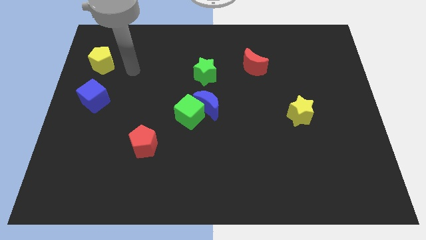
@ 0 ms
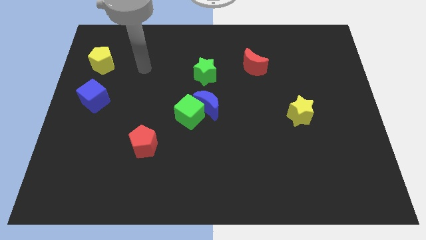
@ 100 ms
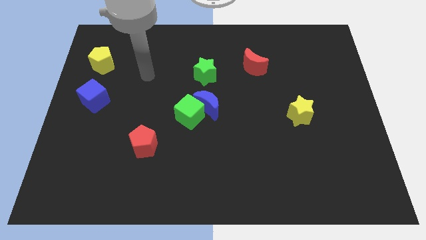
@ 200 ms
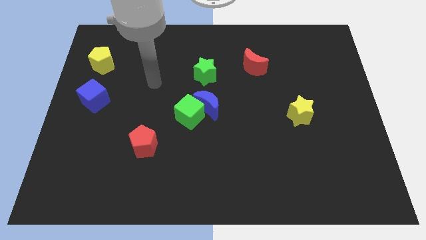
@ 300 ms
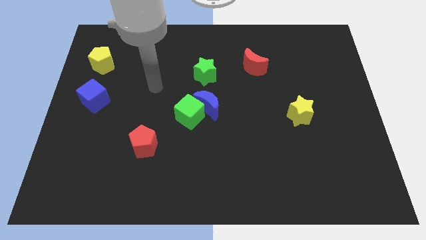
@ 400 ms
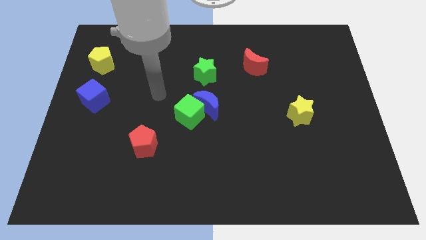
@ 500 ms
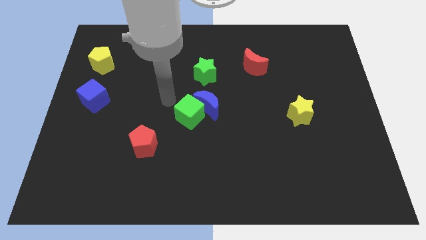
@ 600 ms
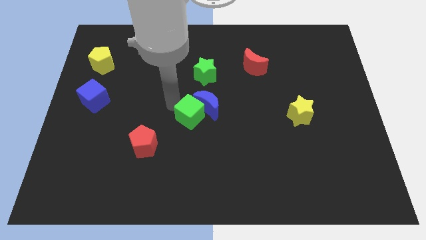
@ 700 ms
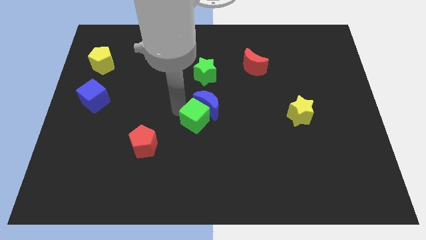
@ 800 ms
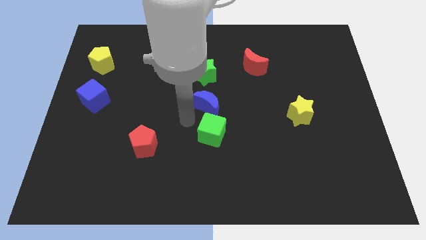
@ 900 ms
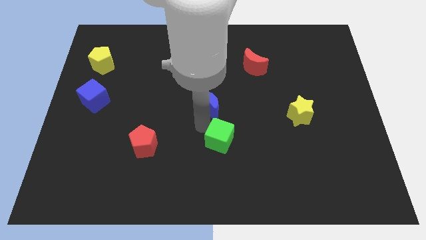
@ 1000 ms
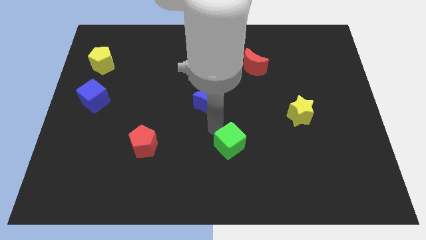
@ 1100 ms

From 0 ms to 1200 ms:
pull the blue moon apart from the green cube

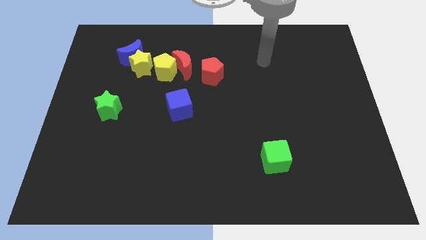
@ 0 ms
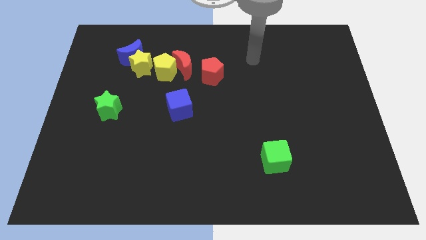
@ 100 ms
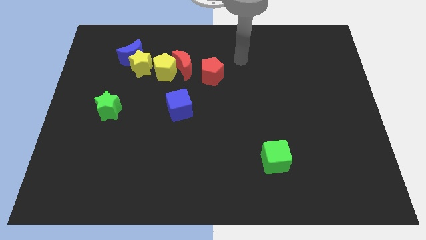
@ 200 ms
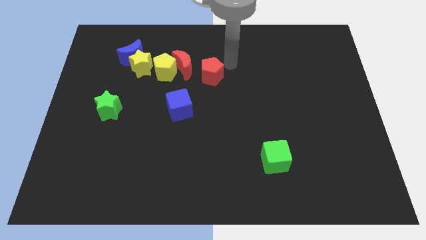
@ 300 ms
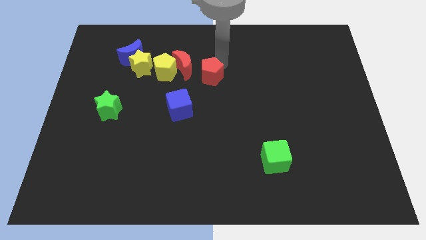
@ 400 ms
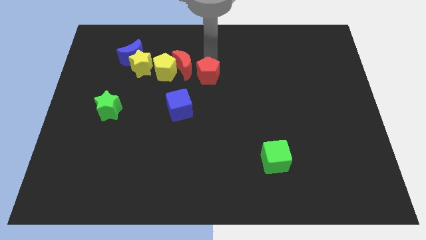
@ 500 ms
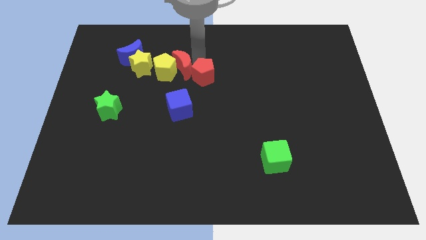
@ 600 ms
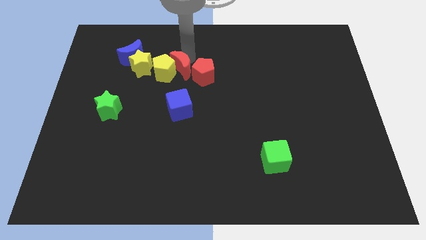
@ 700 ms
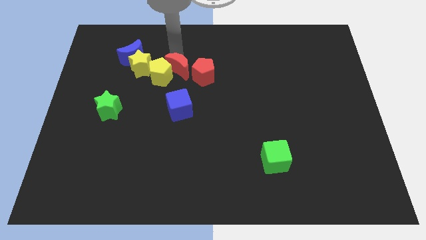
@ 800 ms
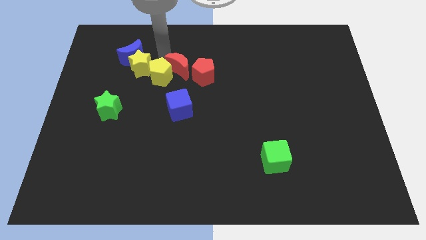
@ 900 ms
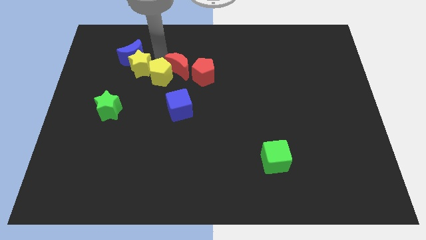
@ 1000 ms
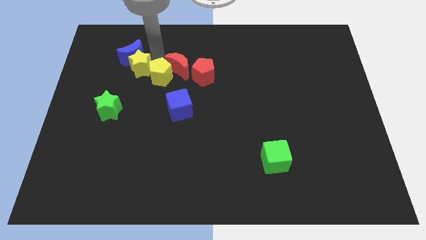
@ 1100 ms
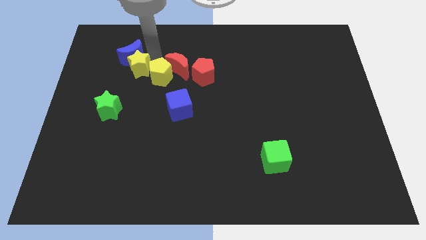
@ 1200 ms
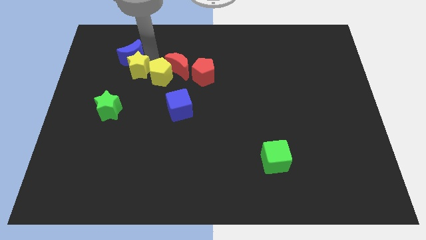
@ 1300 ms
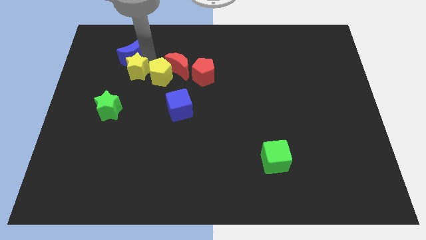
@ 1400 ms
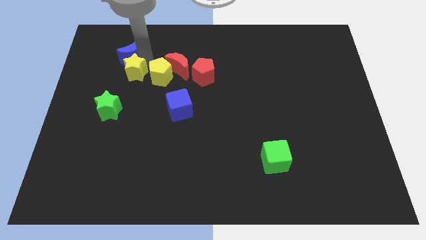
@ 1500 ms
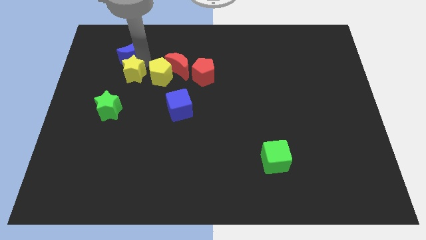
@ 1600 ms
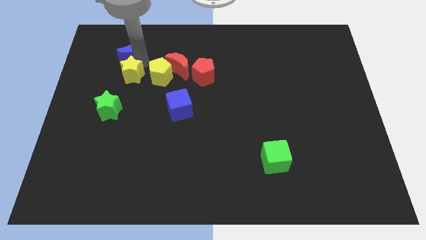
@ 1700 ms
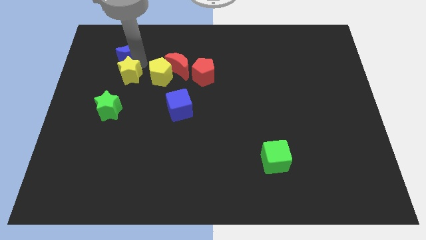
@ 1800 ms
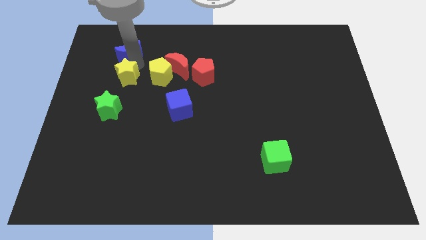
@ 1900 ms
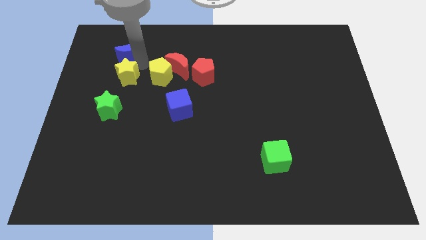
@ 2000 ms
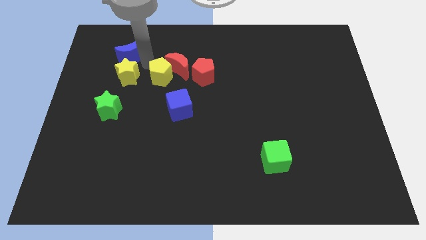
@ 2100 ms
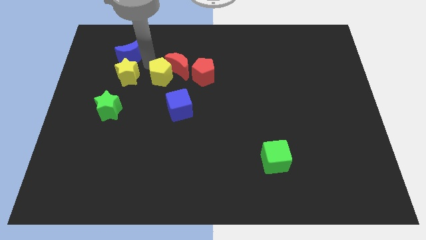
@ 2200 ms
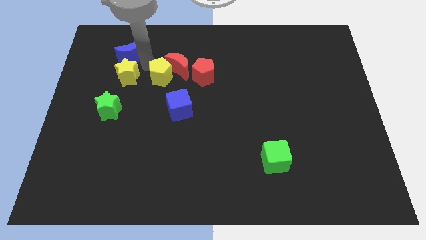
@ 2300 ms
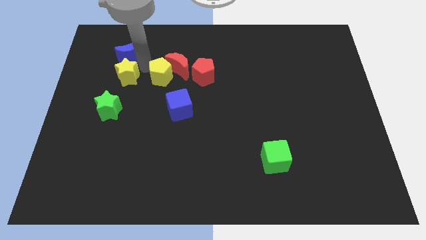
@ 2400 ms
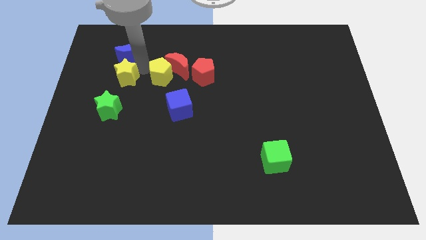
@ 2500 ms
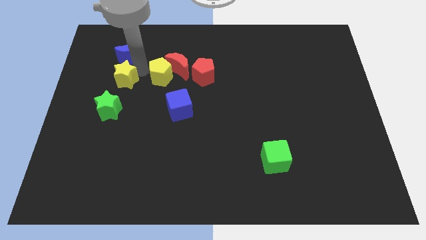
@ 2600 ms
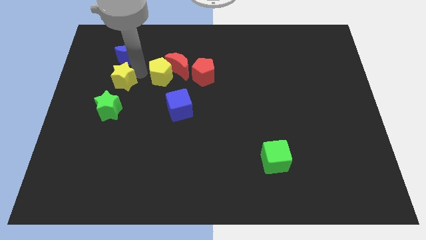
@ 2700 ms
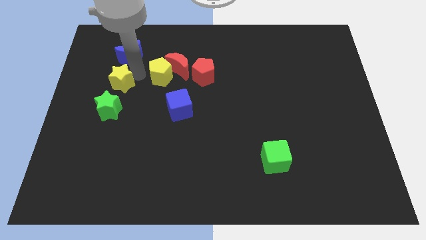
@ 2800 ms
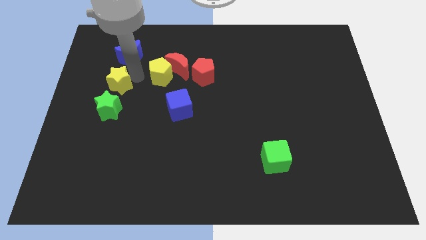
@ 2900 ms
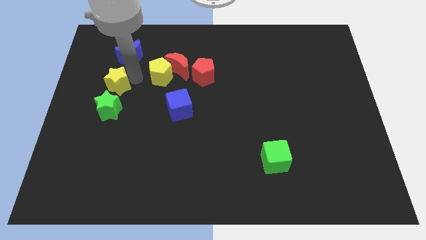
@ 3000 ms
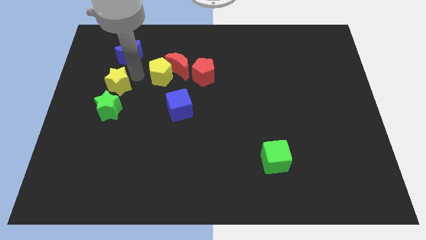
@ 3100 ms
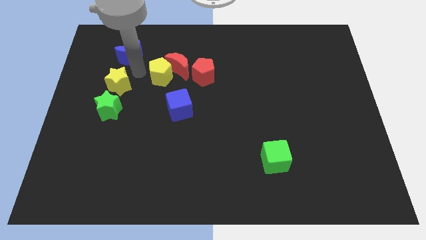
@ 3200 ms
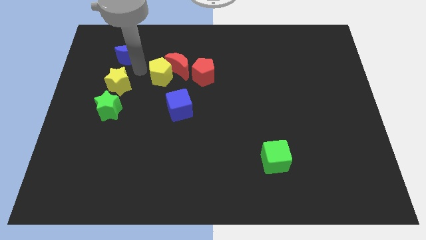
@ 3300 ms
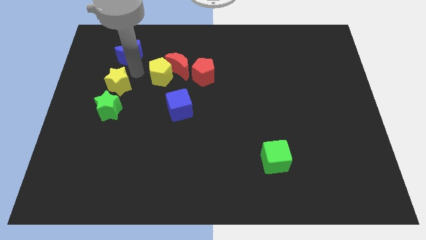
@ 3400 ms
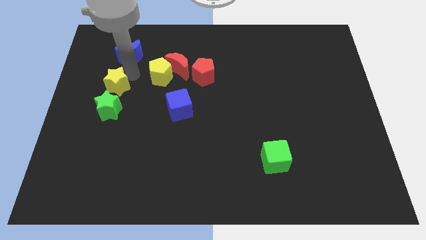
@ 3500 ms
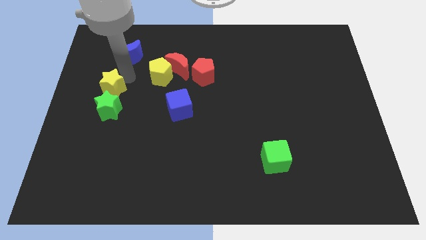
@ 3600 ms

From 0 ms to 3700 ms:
separate the yellow star from the blue moon and yellow pentagon

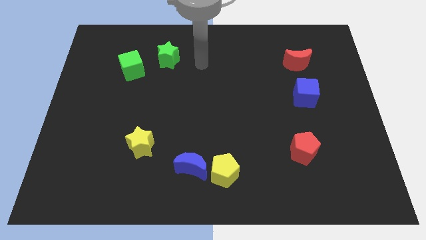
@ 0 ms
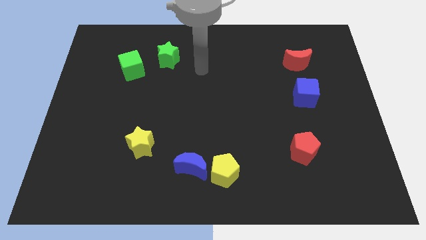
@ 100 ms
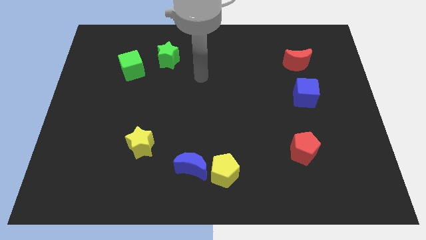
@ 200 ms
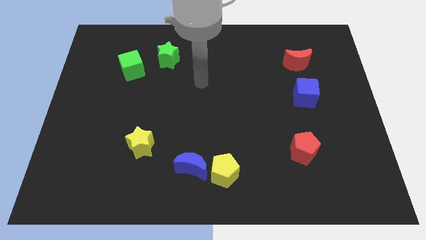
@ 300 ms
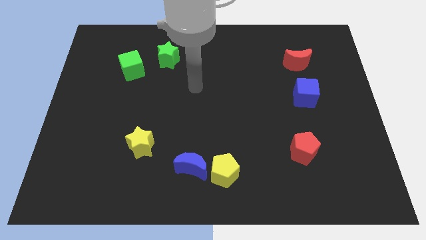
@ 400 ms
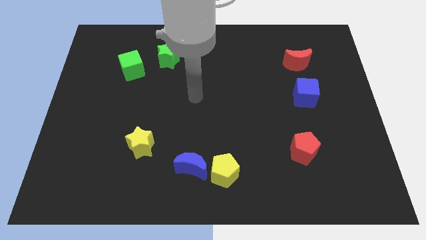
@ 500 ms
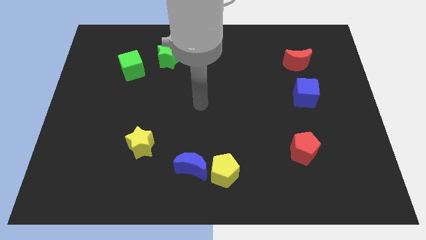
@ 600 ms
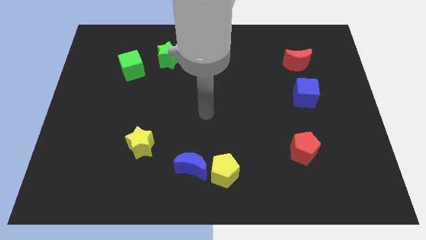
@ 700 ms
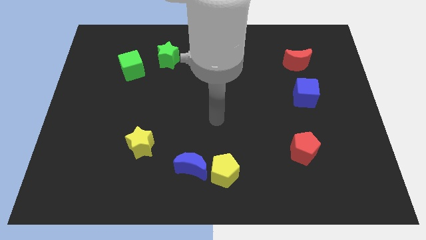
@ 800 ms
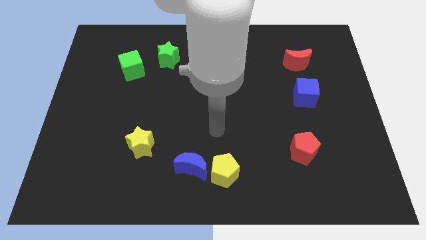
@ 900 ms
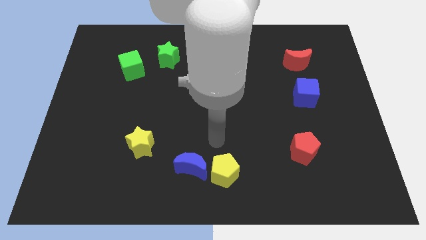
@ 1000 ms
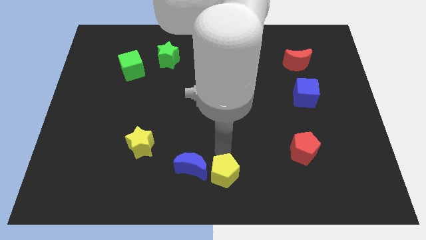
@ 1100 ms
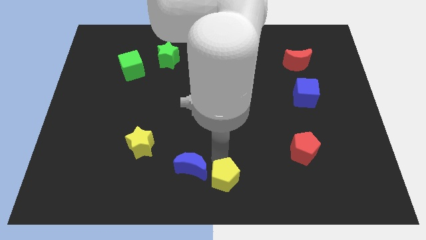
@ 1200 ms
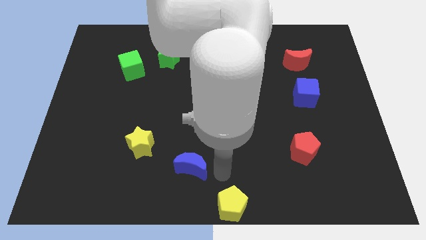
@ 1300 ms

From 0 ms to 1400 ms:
separate the blue moon from the yellow pentagon

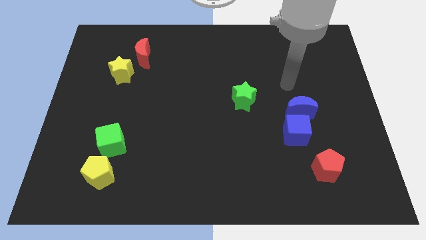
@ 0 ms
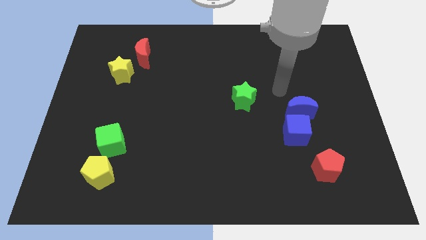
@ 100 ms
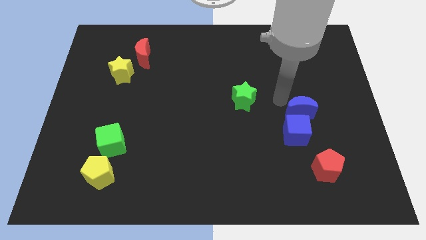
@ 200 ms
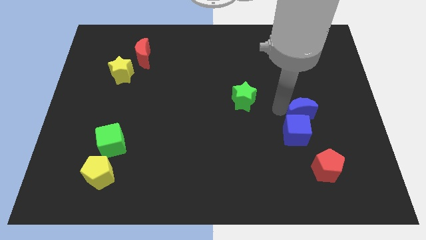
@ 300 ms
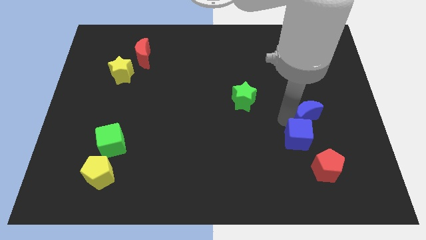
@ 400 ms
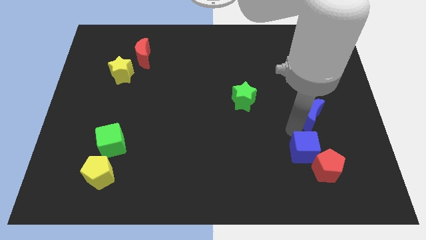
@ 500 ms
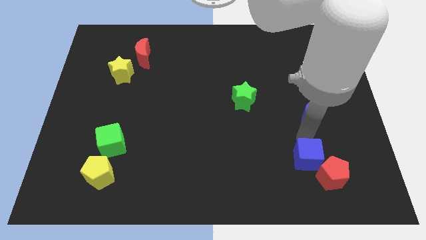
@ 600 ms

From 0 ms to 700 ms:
move the blue moon away from the blue cube

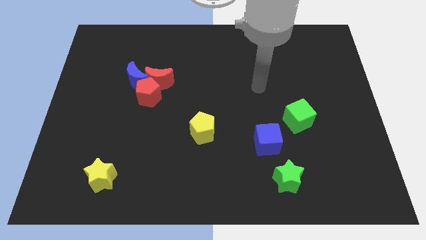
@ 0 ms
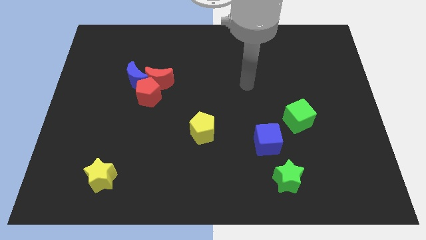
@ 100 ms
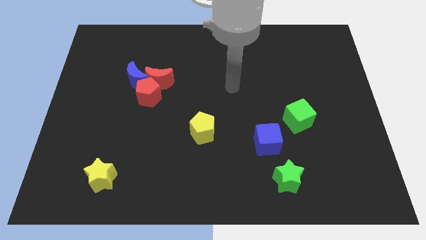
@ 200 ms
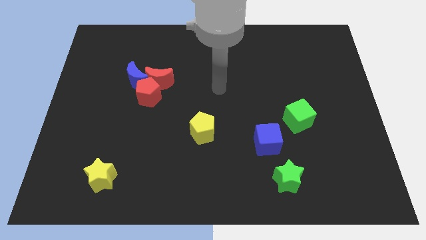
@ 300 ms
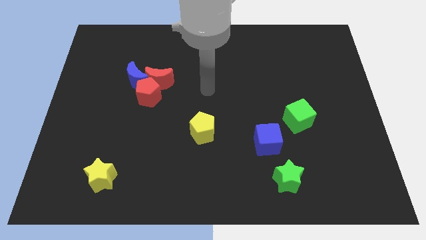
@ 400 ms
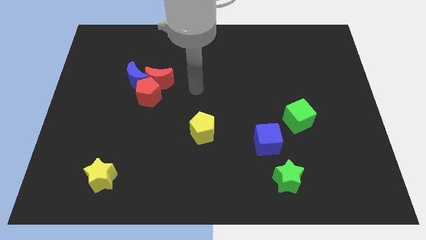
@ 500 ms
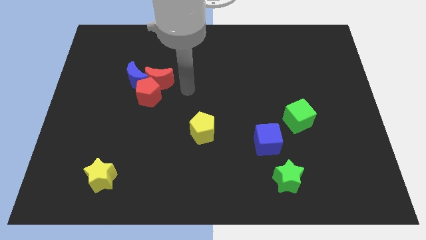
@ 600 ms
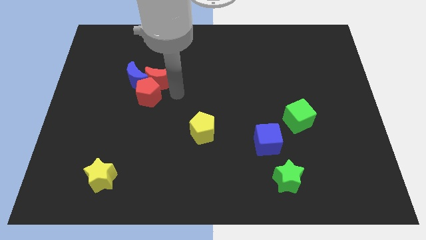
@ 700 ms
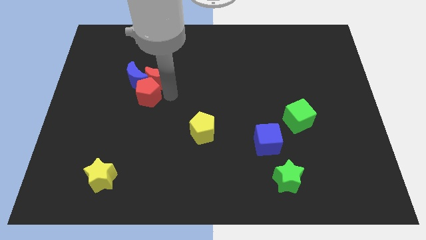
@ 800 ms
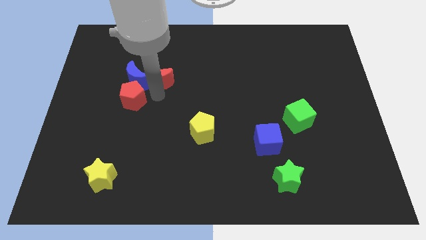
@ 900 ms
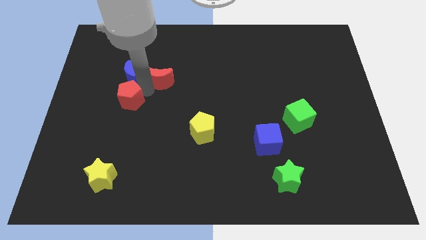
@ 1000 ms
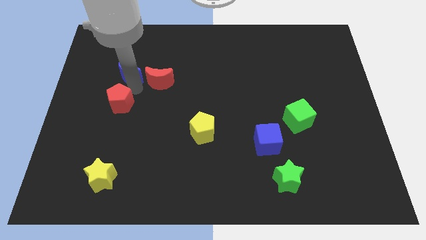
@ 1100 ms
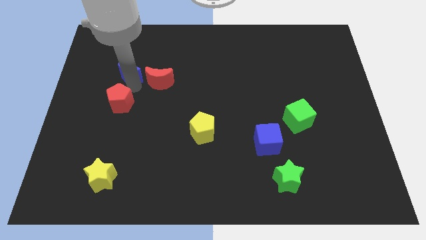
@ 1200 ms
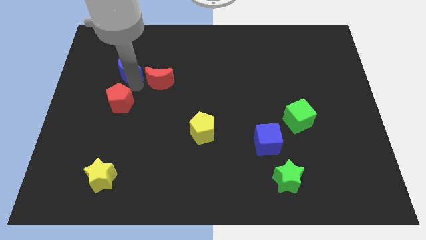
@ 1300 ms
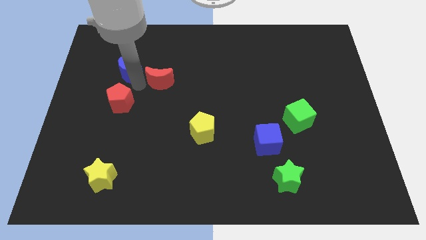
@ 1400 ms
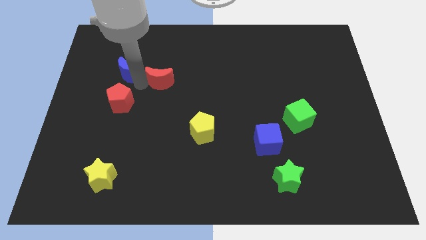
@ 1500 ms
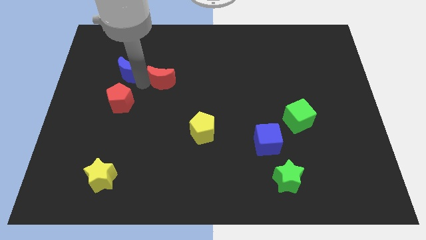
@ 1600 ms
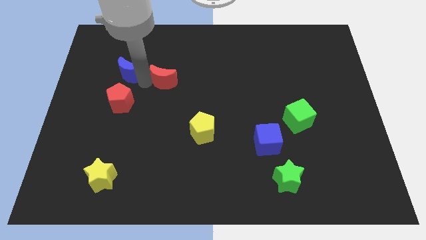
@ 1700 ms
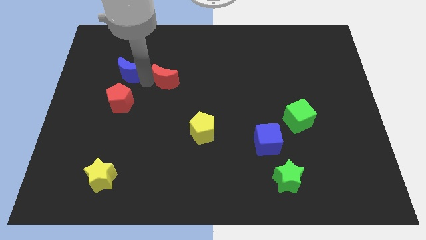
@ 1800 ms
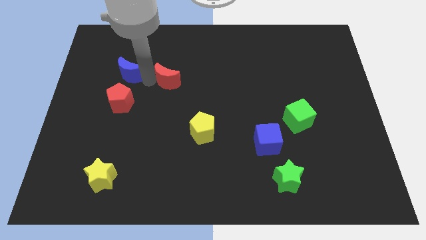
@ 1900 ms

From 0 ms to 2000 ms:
move the red moon away from the red pentagon and blue moon

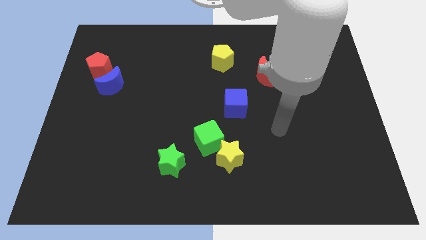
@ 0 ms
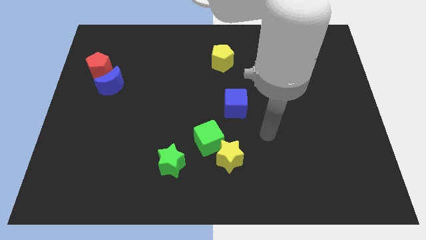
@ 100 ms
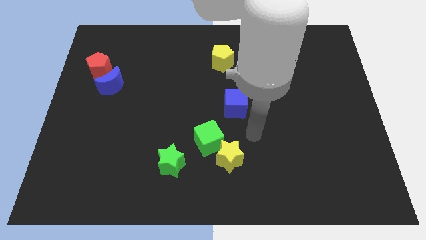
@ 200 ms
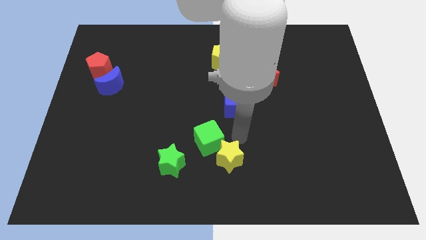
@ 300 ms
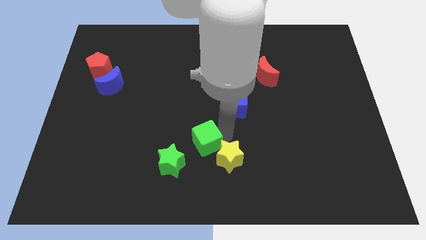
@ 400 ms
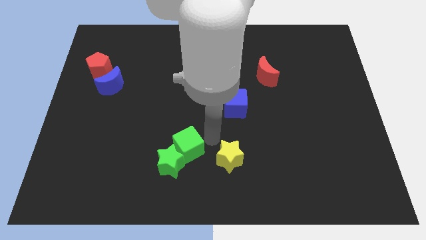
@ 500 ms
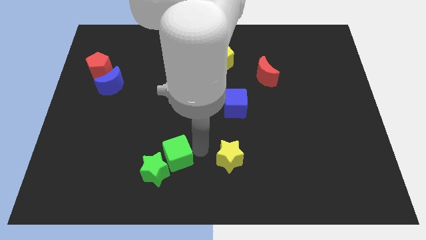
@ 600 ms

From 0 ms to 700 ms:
move the yellow star away from the green cube
